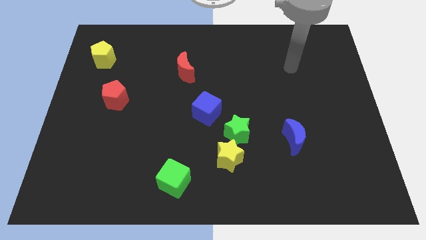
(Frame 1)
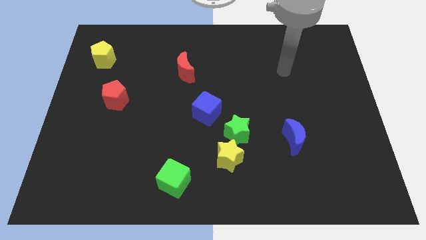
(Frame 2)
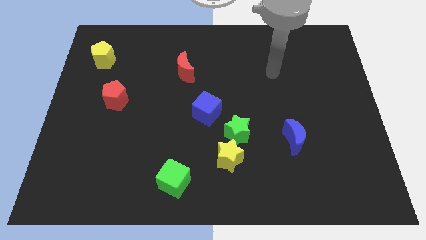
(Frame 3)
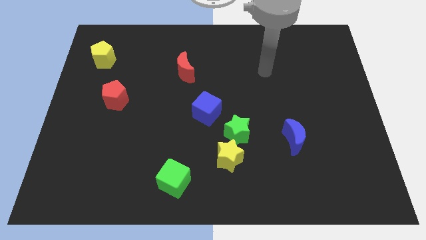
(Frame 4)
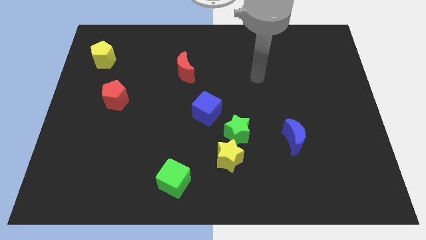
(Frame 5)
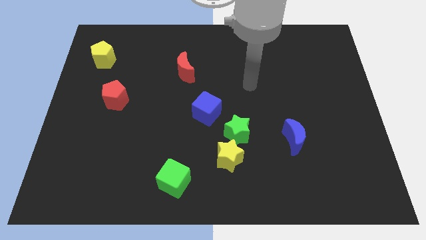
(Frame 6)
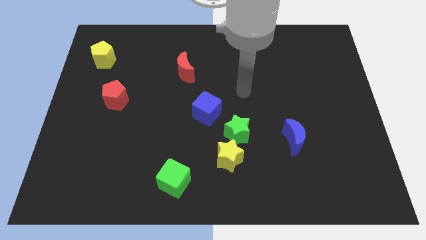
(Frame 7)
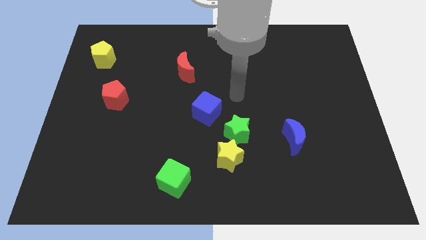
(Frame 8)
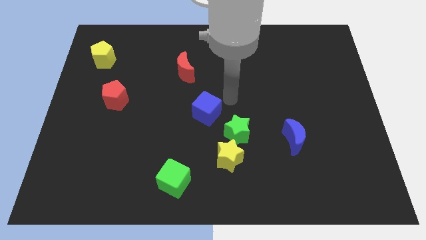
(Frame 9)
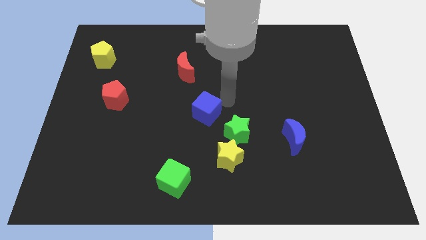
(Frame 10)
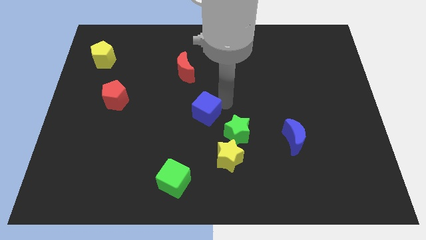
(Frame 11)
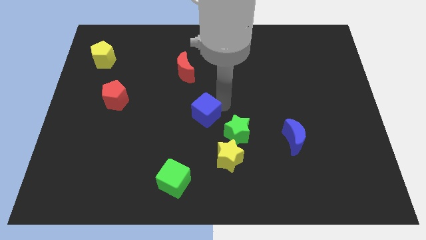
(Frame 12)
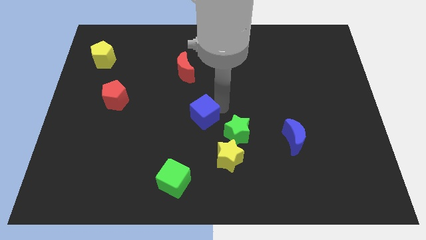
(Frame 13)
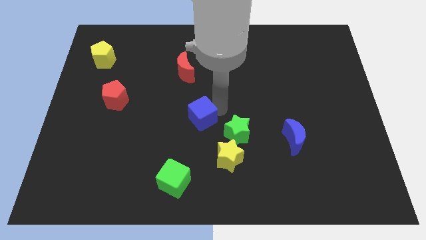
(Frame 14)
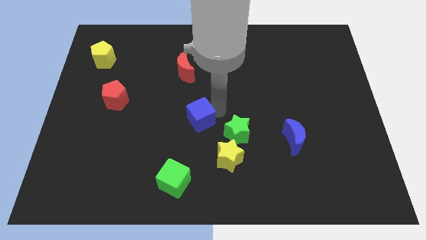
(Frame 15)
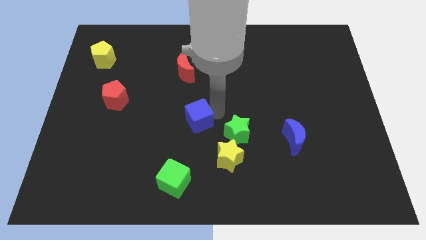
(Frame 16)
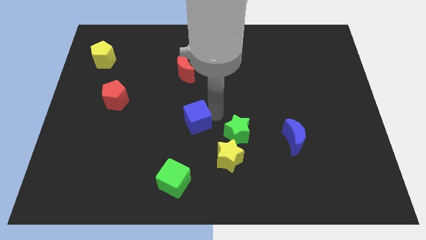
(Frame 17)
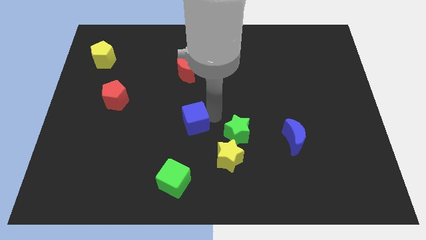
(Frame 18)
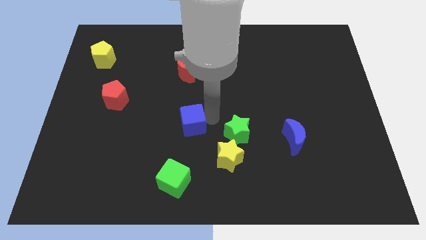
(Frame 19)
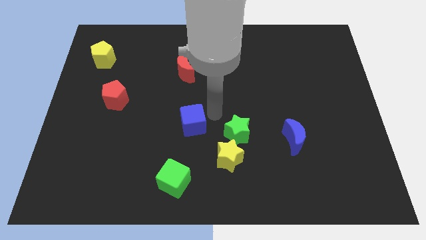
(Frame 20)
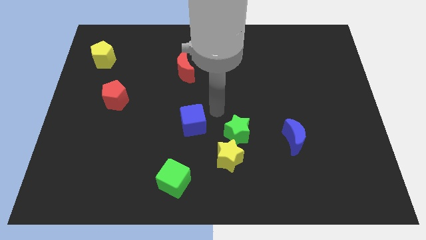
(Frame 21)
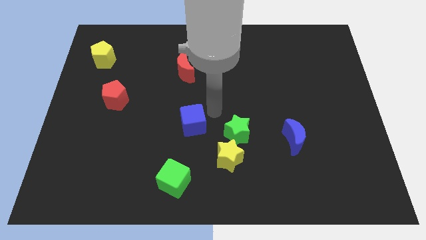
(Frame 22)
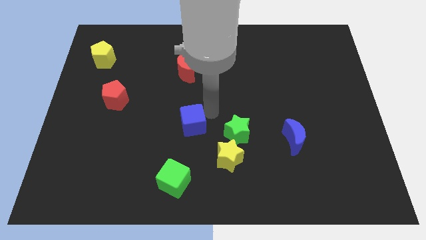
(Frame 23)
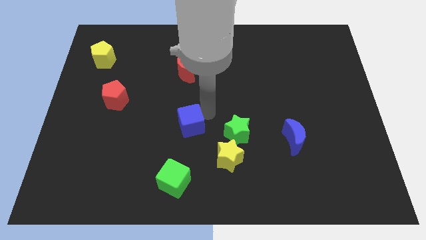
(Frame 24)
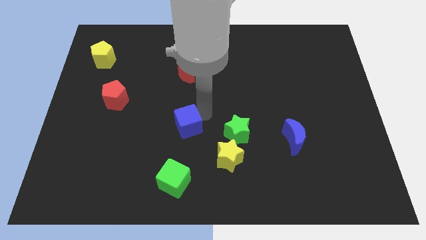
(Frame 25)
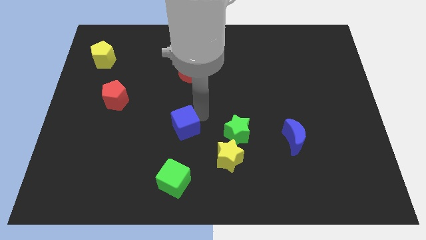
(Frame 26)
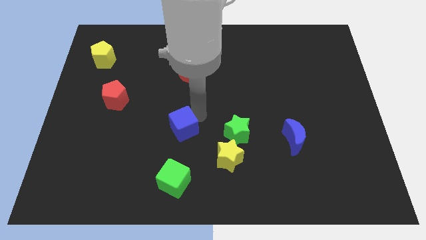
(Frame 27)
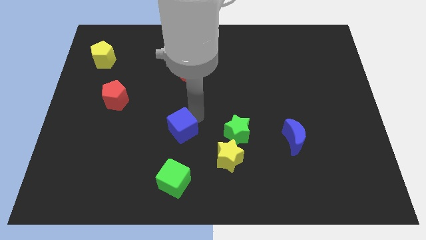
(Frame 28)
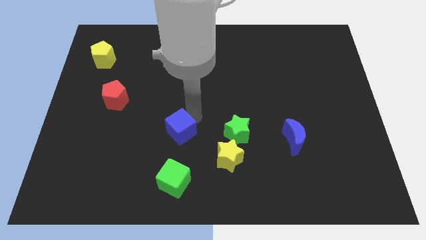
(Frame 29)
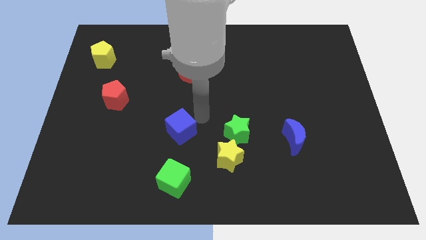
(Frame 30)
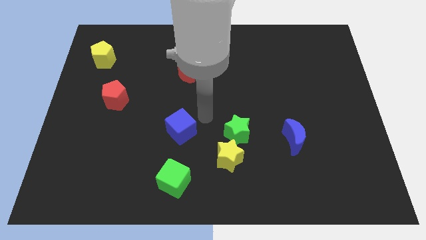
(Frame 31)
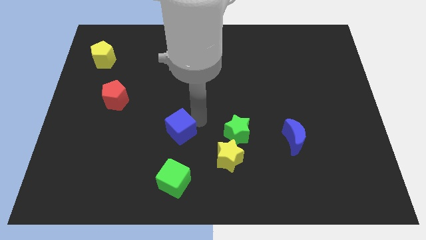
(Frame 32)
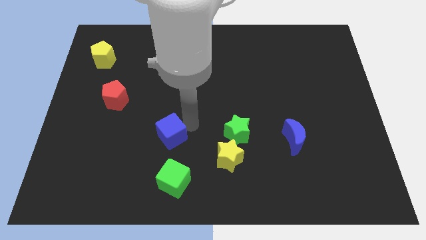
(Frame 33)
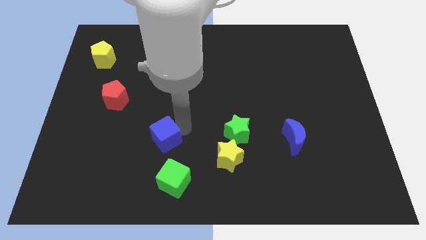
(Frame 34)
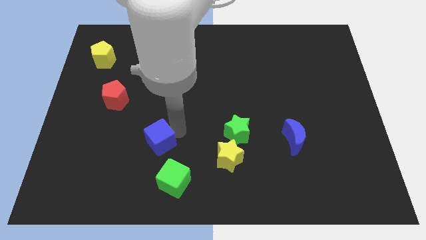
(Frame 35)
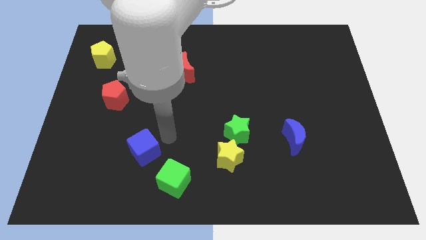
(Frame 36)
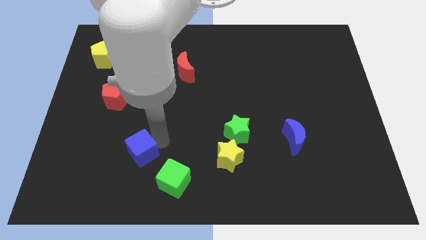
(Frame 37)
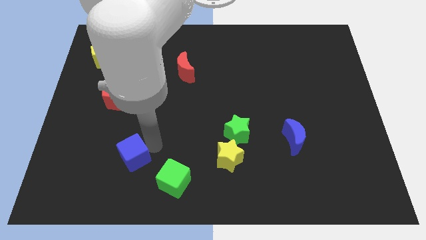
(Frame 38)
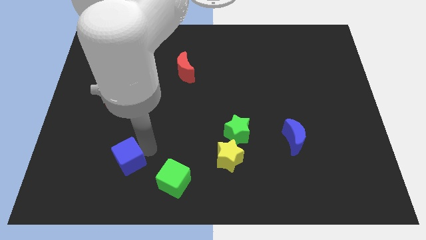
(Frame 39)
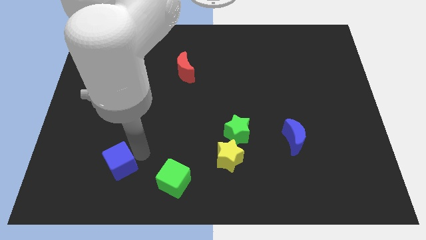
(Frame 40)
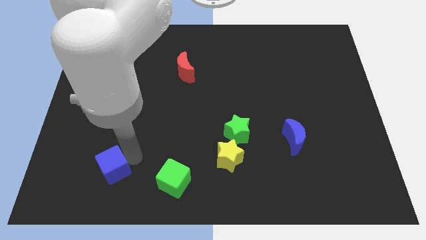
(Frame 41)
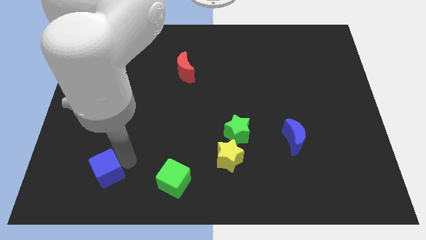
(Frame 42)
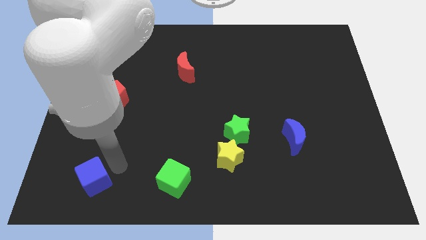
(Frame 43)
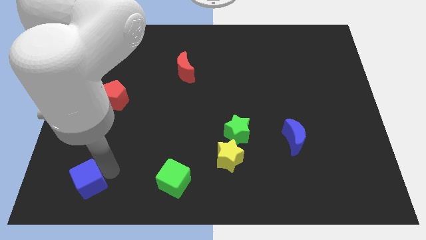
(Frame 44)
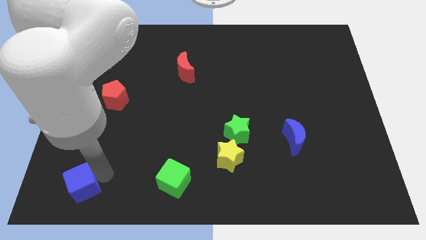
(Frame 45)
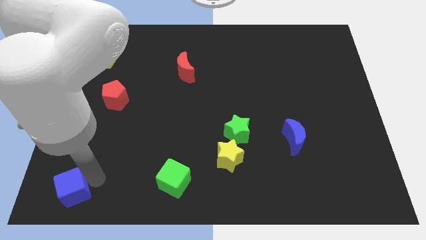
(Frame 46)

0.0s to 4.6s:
move the blue cube to the lower left corner

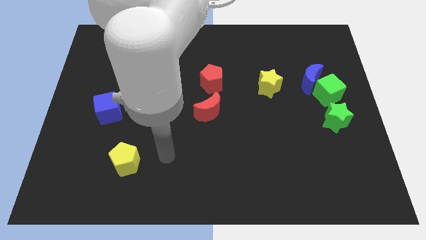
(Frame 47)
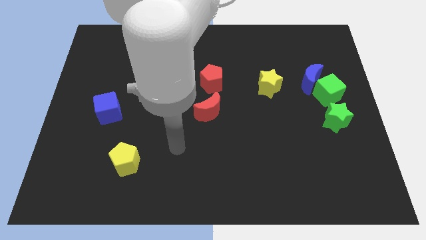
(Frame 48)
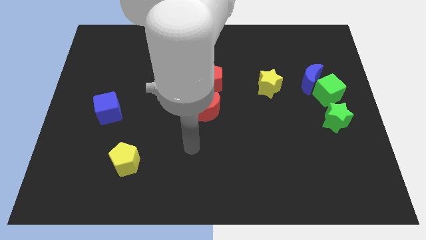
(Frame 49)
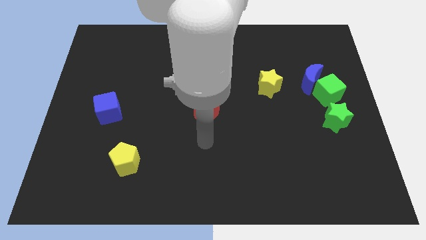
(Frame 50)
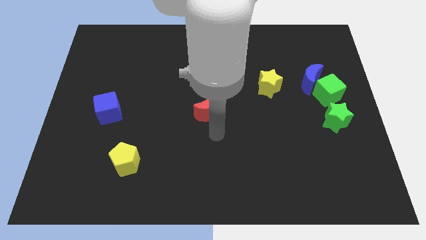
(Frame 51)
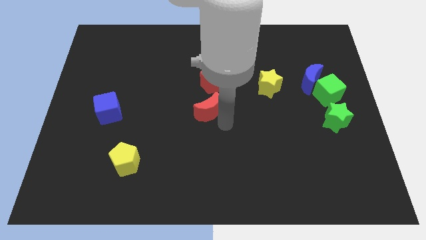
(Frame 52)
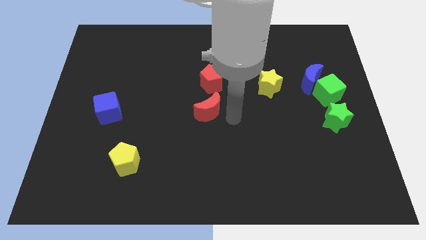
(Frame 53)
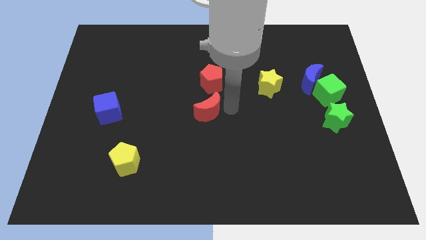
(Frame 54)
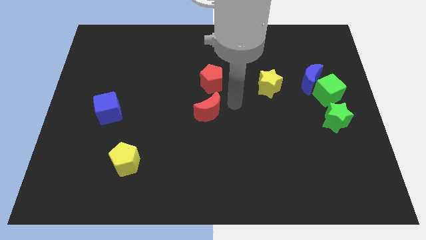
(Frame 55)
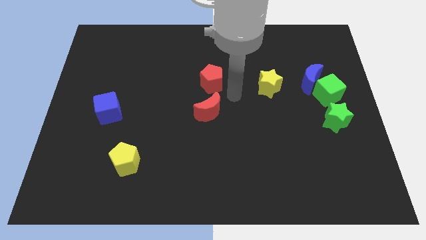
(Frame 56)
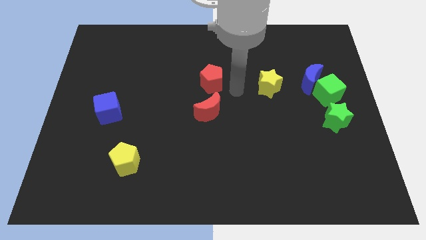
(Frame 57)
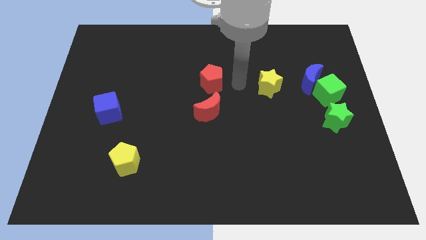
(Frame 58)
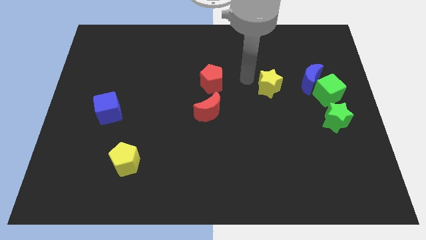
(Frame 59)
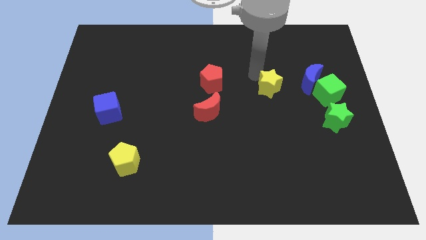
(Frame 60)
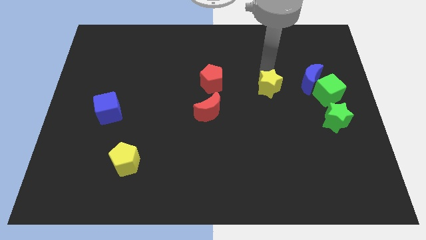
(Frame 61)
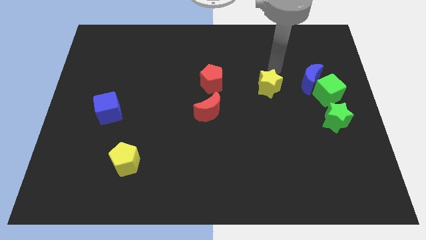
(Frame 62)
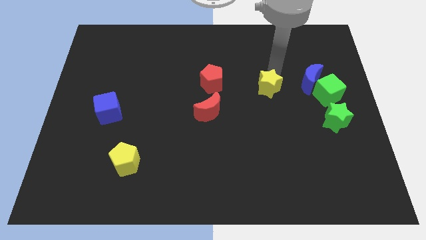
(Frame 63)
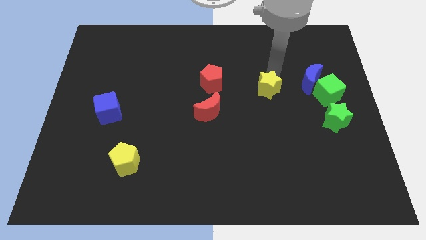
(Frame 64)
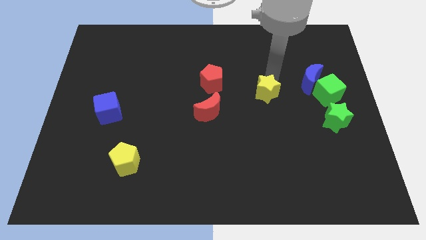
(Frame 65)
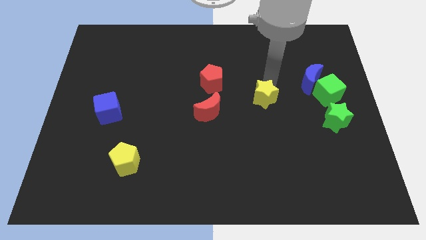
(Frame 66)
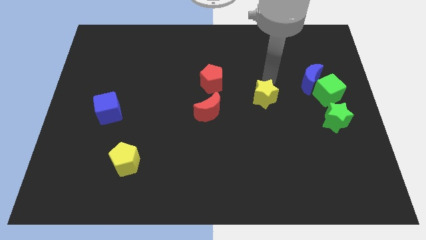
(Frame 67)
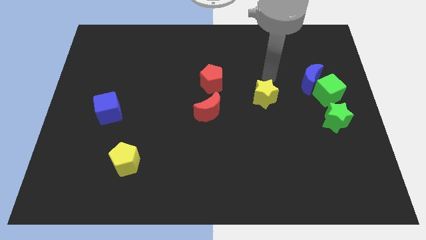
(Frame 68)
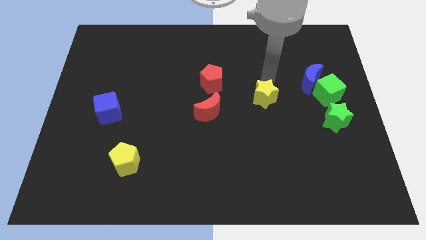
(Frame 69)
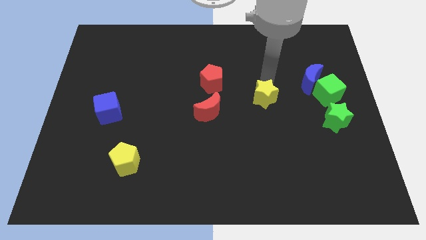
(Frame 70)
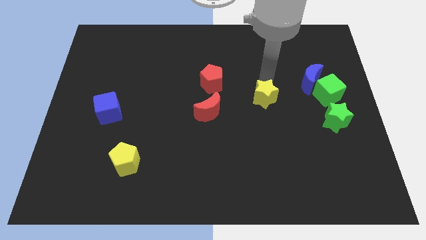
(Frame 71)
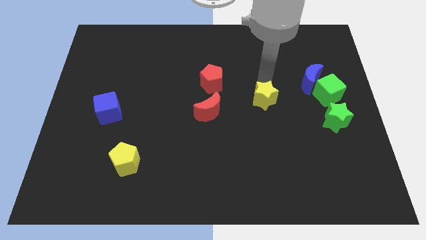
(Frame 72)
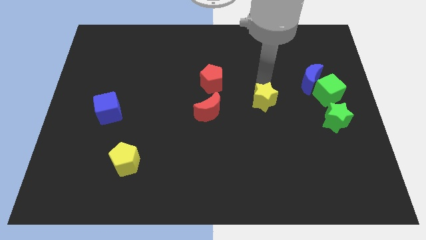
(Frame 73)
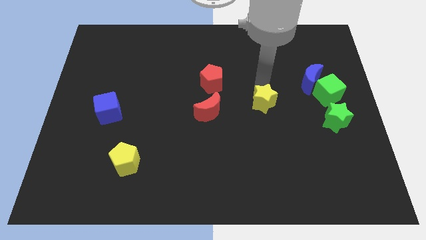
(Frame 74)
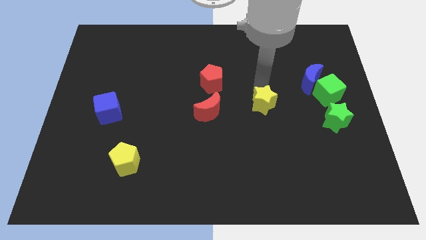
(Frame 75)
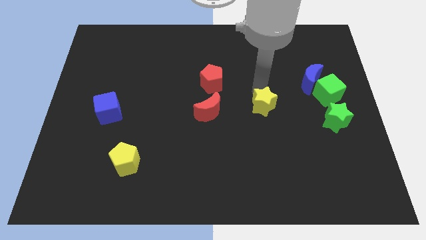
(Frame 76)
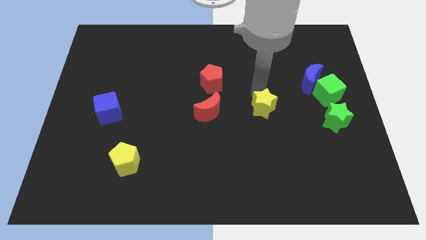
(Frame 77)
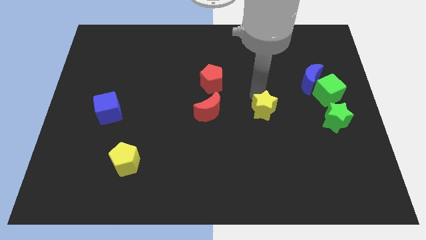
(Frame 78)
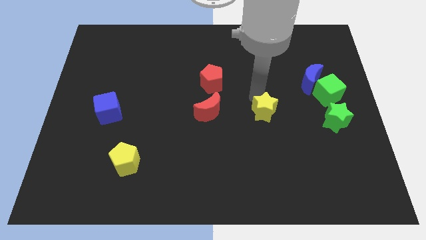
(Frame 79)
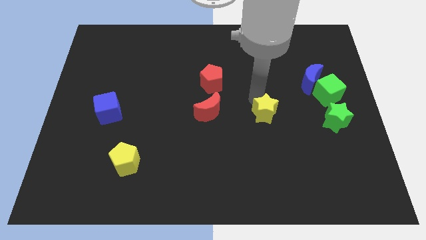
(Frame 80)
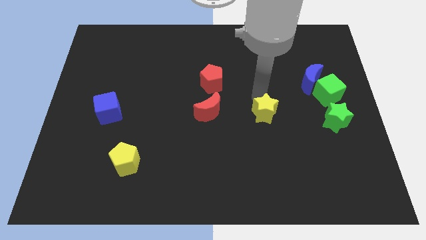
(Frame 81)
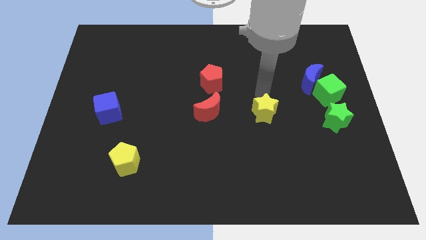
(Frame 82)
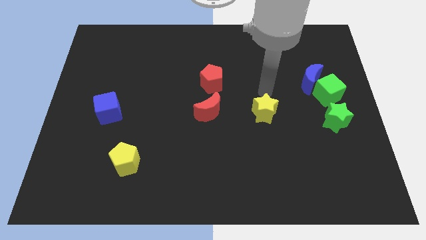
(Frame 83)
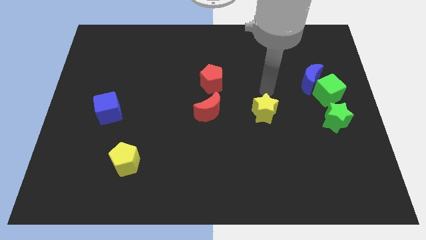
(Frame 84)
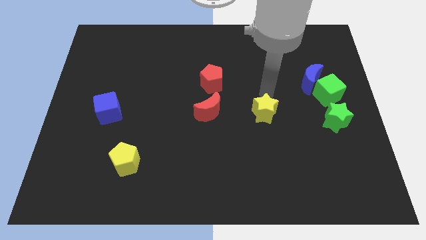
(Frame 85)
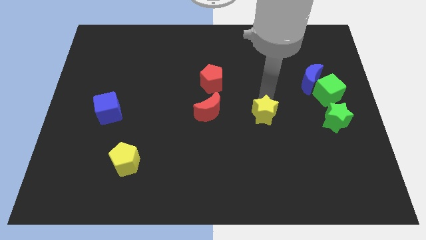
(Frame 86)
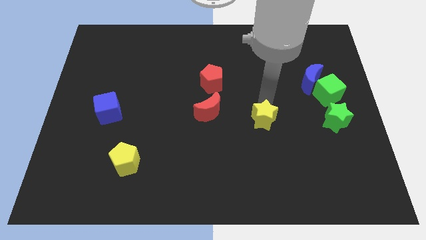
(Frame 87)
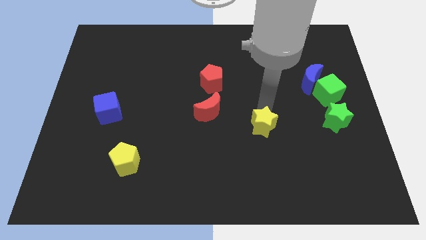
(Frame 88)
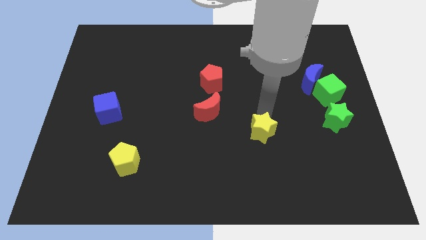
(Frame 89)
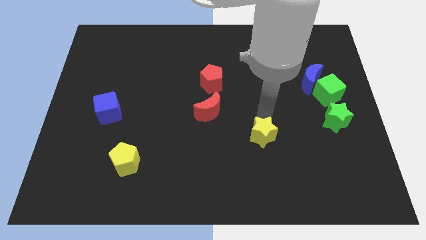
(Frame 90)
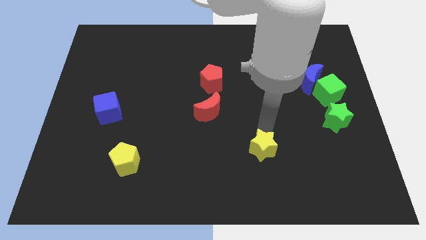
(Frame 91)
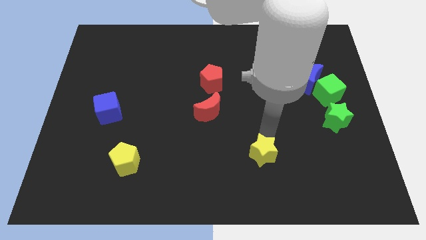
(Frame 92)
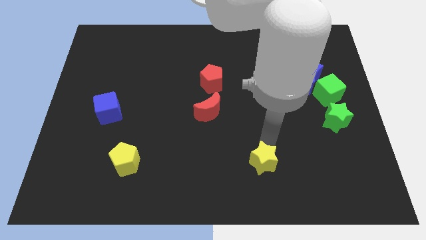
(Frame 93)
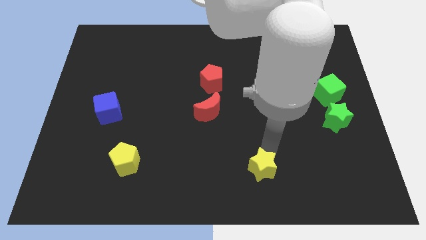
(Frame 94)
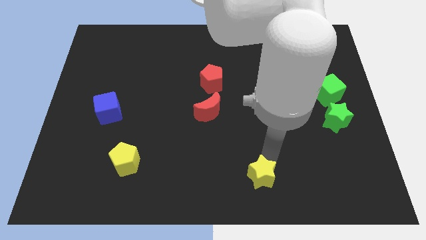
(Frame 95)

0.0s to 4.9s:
slide the yellow star to the bottom
